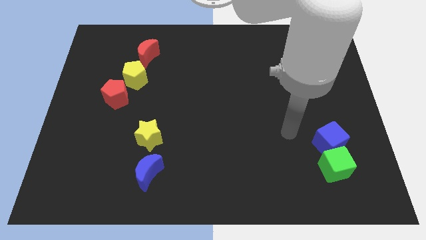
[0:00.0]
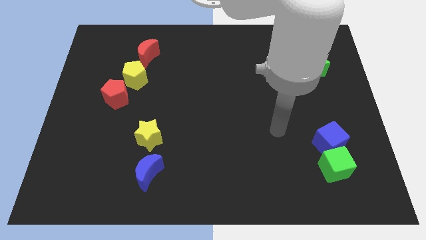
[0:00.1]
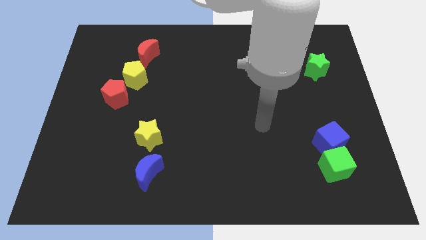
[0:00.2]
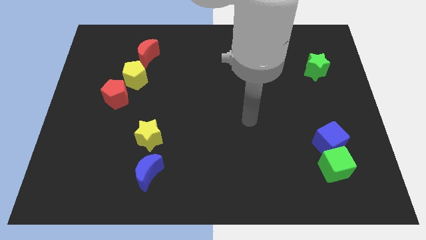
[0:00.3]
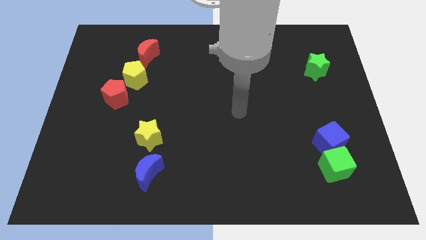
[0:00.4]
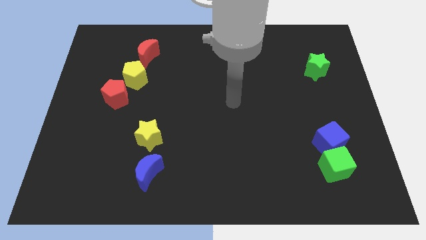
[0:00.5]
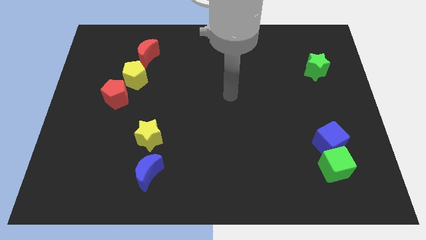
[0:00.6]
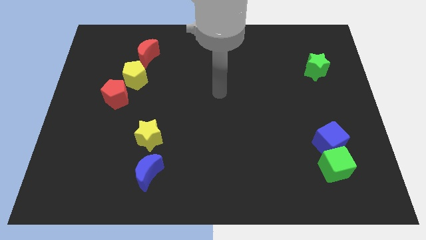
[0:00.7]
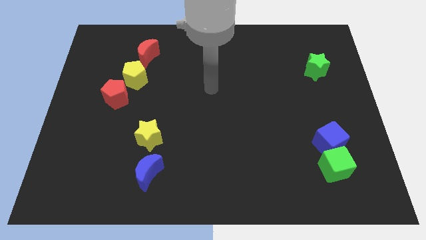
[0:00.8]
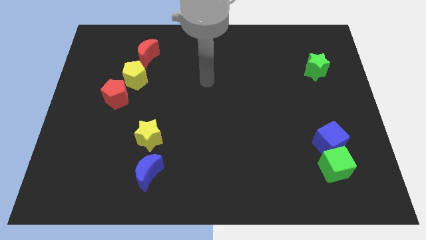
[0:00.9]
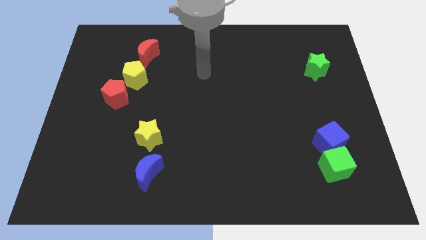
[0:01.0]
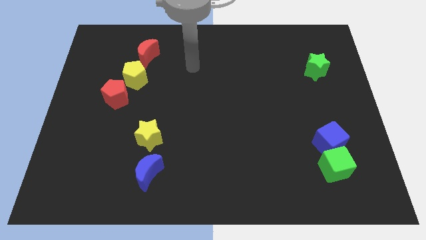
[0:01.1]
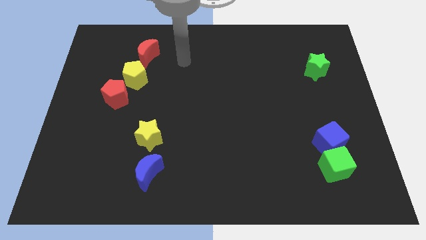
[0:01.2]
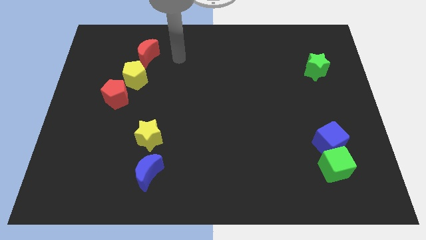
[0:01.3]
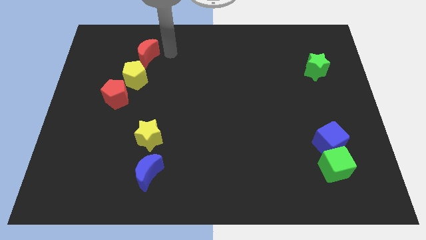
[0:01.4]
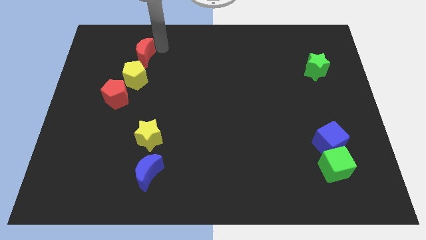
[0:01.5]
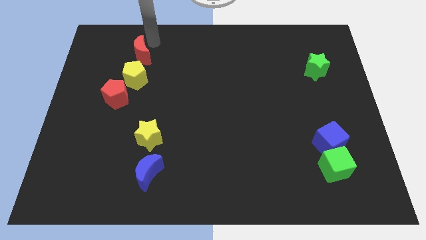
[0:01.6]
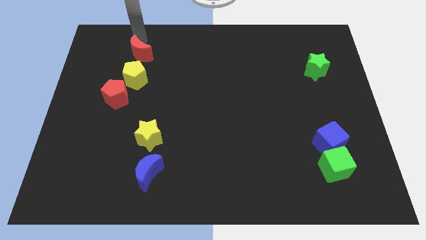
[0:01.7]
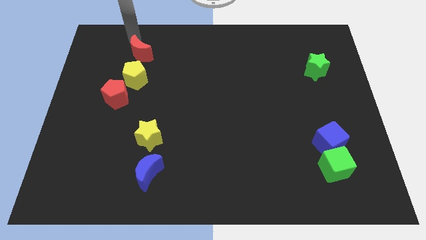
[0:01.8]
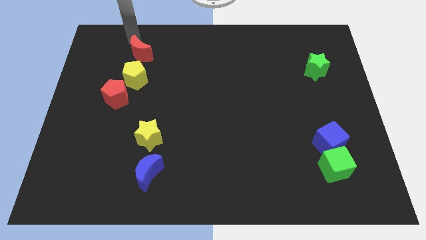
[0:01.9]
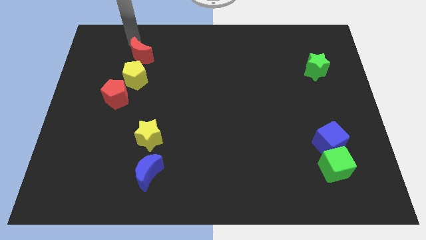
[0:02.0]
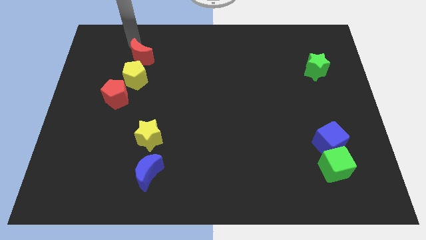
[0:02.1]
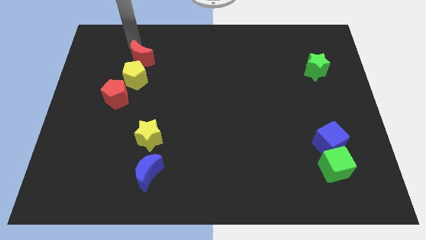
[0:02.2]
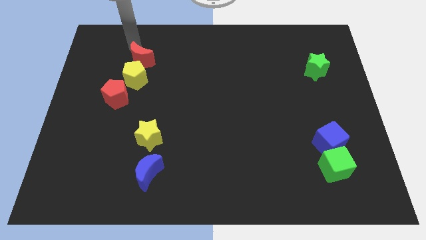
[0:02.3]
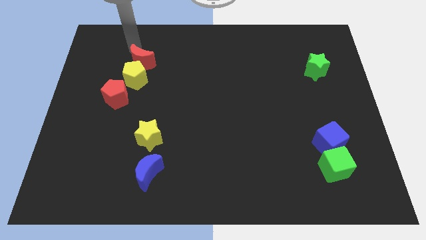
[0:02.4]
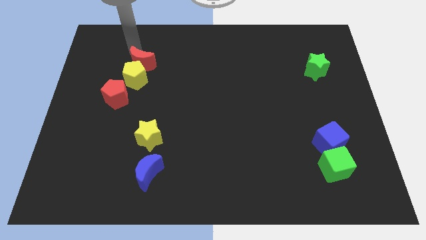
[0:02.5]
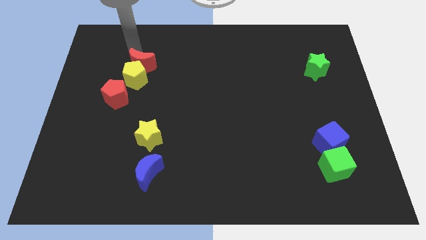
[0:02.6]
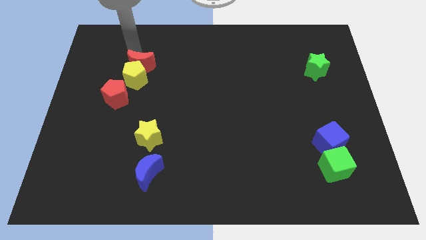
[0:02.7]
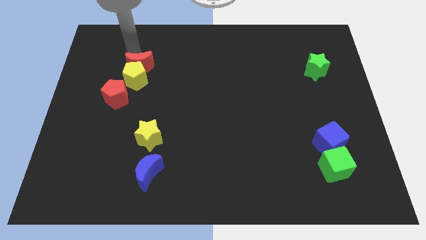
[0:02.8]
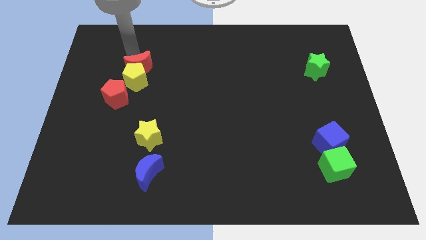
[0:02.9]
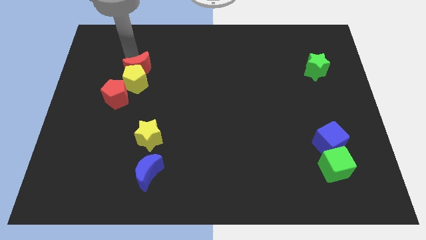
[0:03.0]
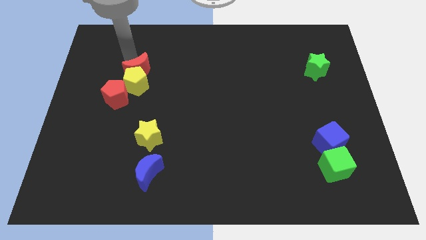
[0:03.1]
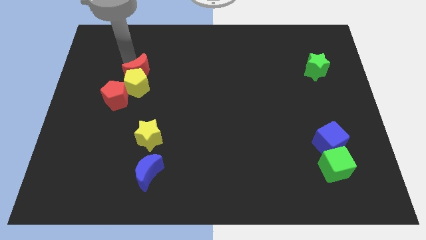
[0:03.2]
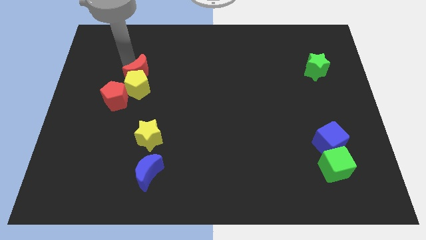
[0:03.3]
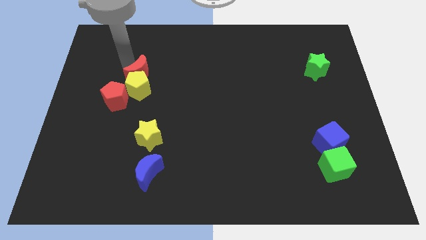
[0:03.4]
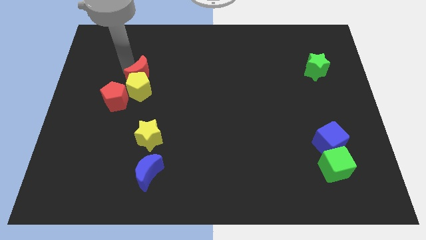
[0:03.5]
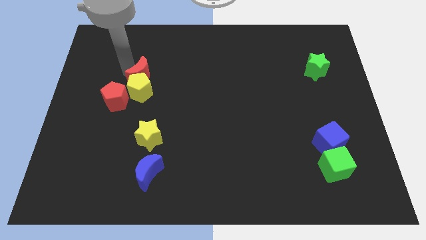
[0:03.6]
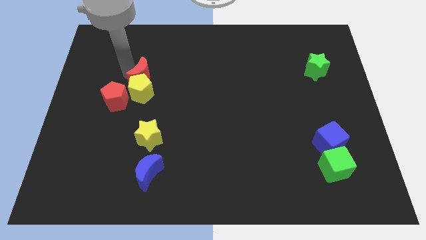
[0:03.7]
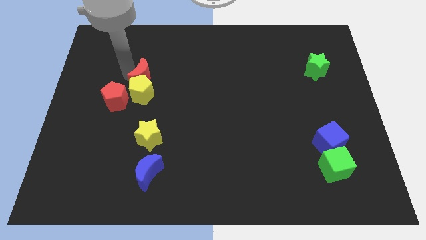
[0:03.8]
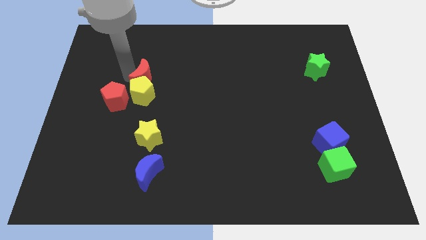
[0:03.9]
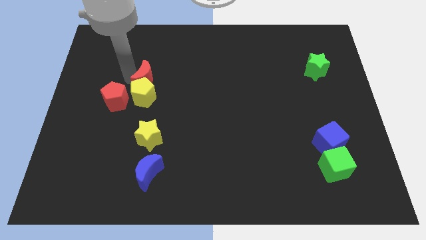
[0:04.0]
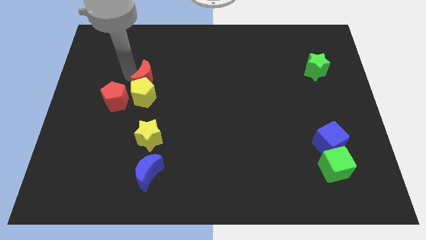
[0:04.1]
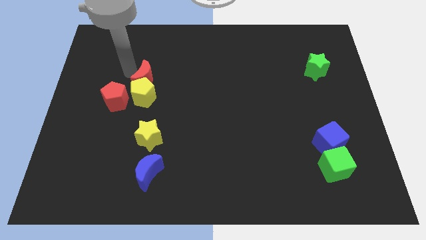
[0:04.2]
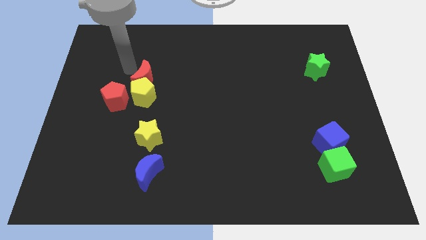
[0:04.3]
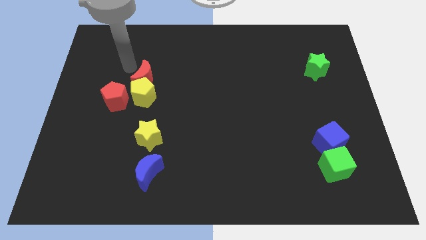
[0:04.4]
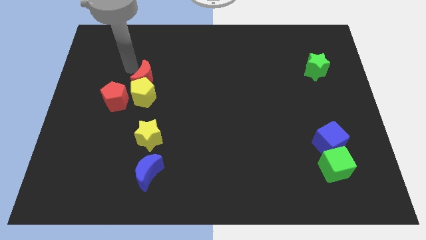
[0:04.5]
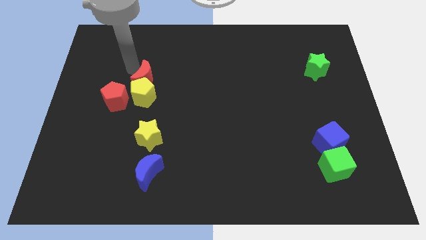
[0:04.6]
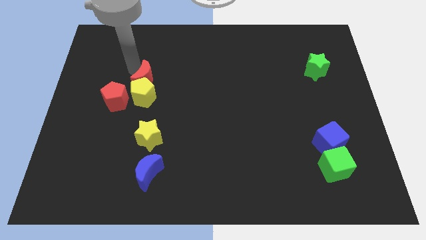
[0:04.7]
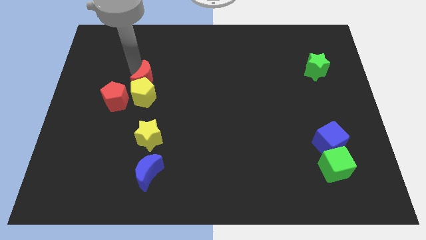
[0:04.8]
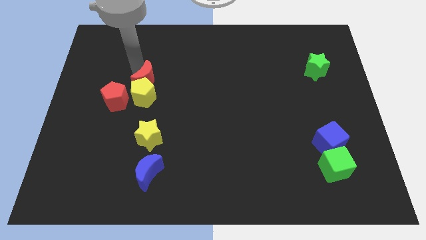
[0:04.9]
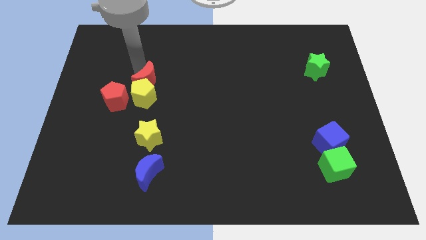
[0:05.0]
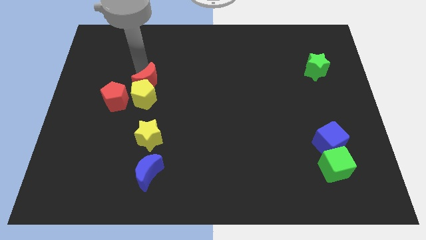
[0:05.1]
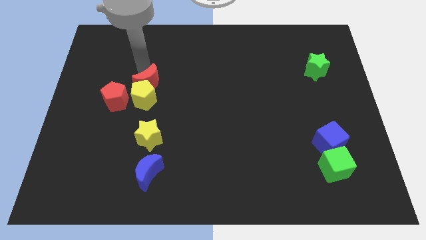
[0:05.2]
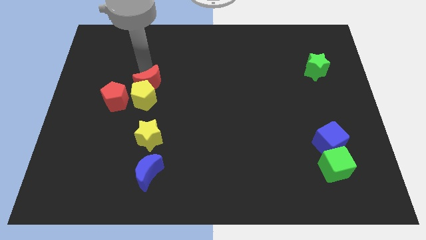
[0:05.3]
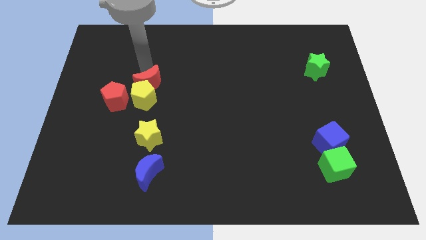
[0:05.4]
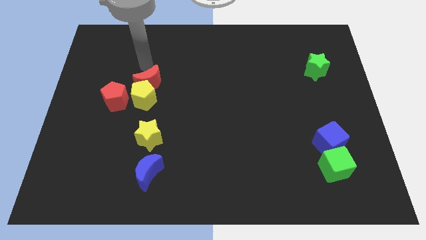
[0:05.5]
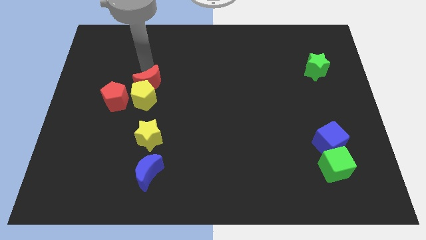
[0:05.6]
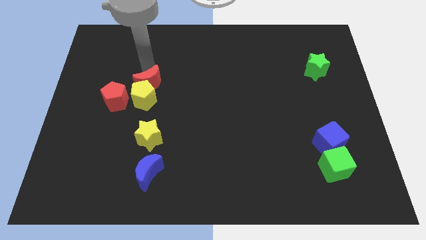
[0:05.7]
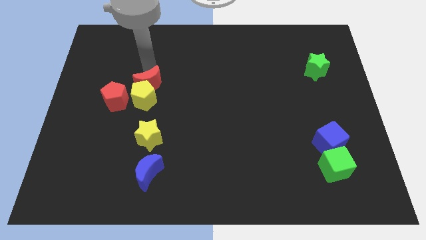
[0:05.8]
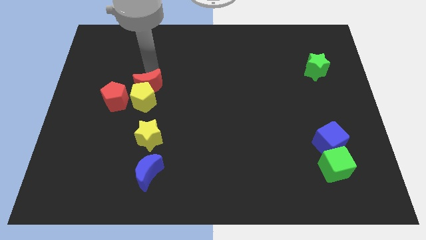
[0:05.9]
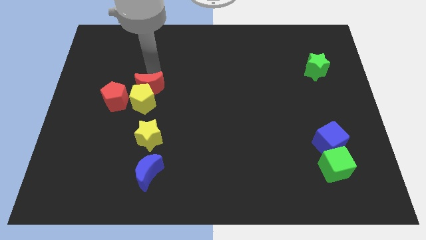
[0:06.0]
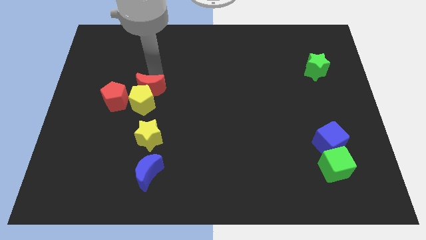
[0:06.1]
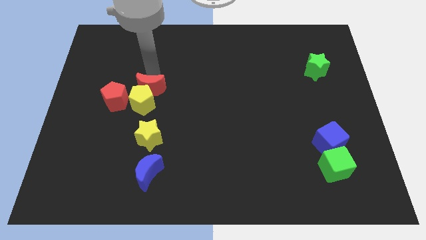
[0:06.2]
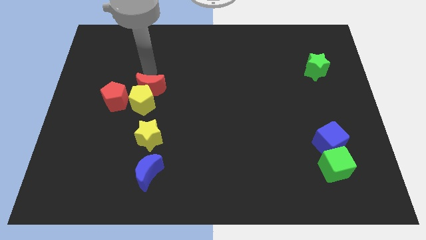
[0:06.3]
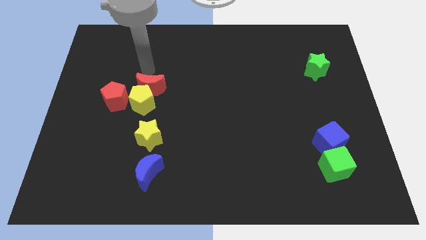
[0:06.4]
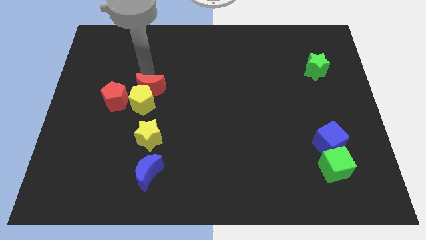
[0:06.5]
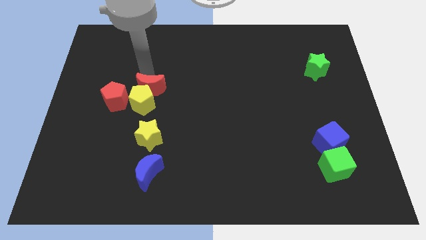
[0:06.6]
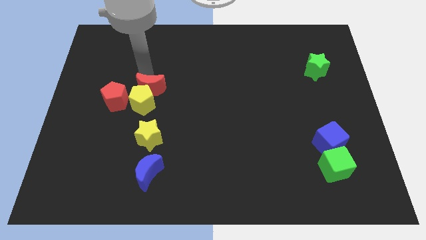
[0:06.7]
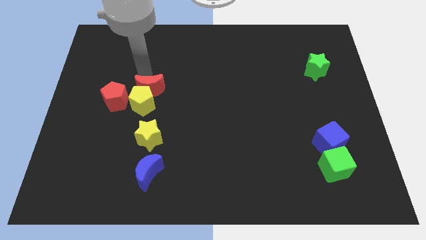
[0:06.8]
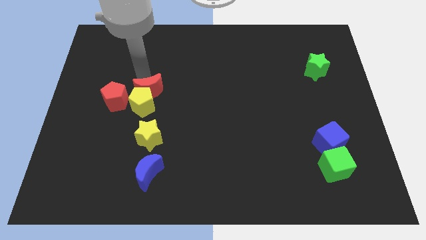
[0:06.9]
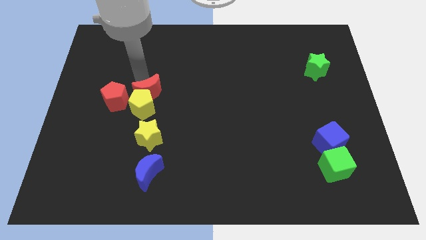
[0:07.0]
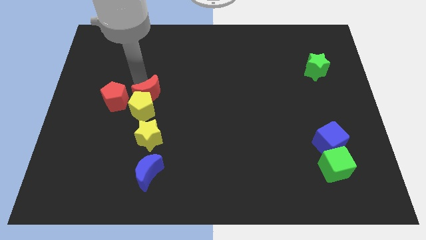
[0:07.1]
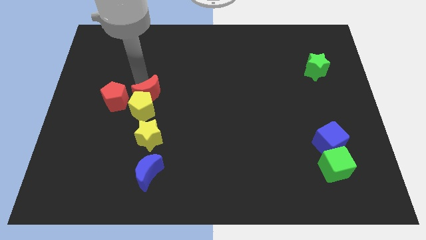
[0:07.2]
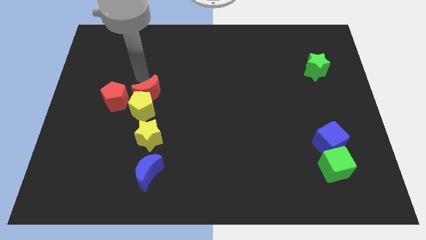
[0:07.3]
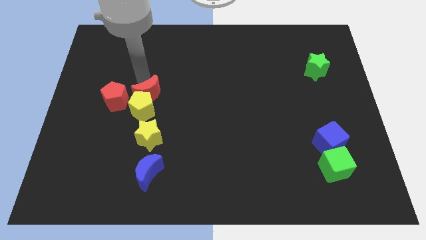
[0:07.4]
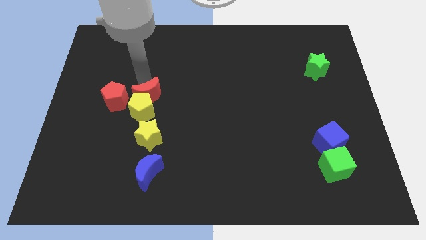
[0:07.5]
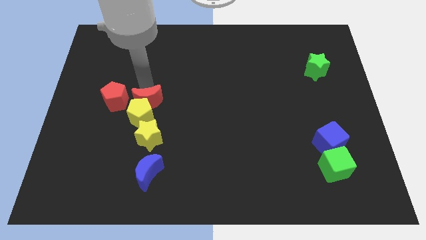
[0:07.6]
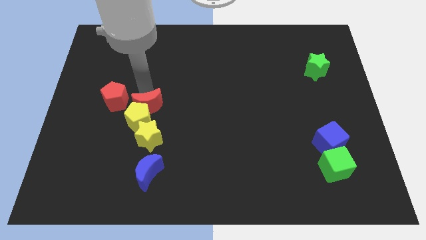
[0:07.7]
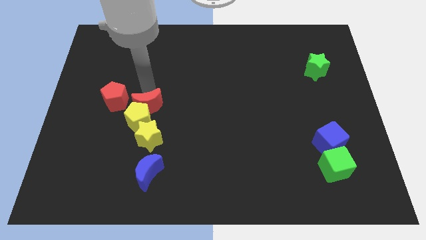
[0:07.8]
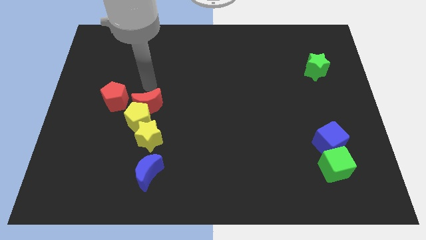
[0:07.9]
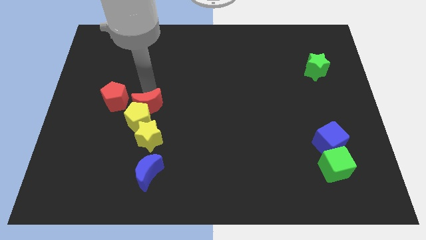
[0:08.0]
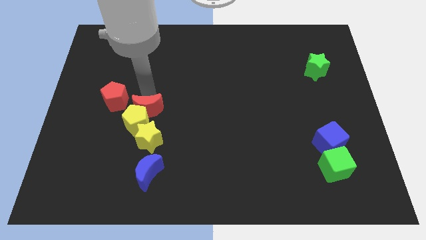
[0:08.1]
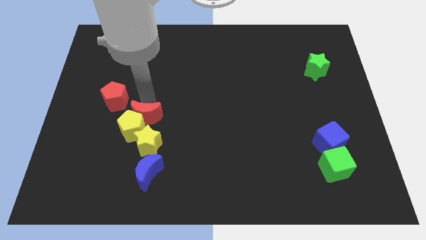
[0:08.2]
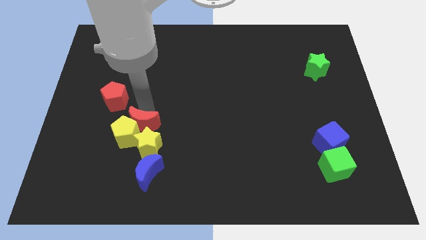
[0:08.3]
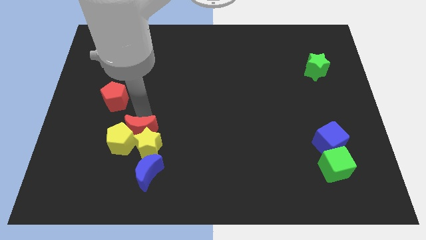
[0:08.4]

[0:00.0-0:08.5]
slide the red moon to the yellow star
